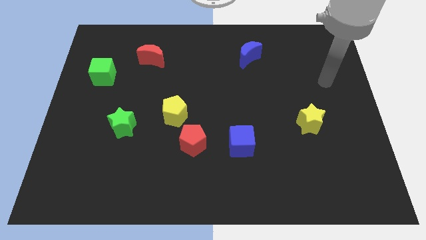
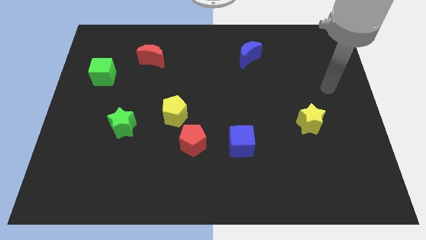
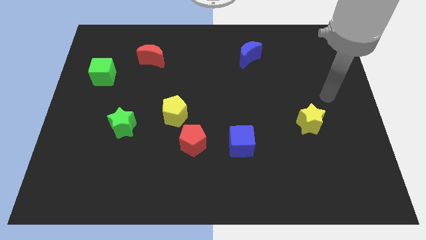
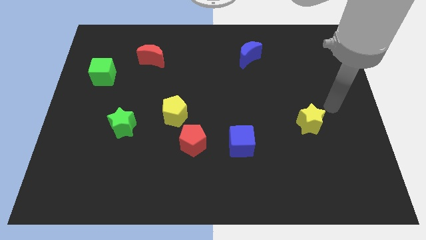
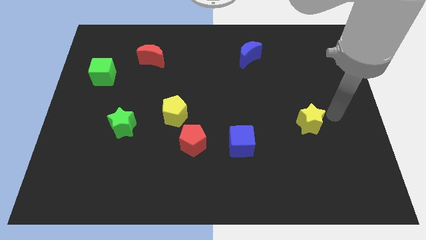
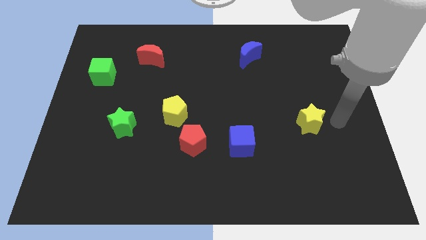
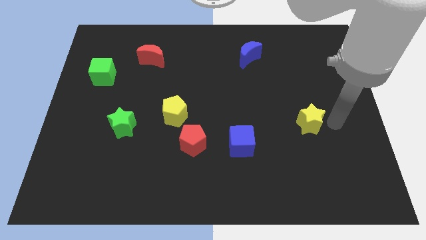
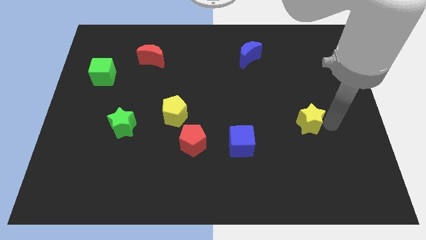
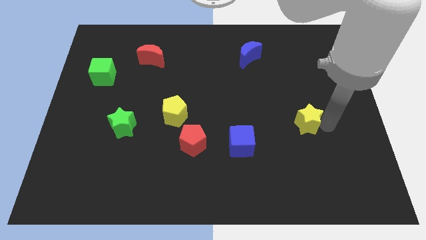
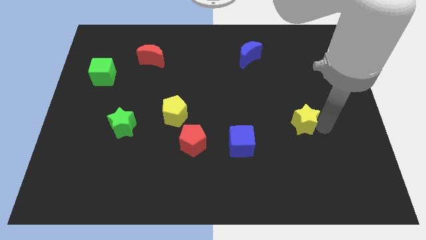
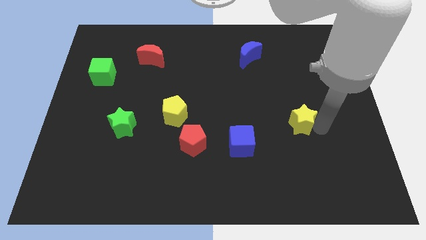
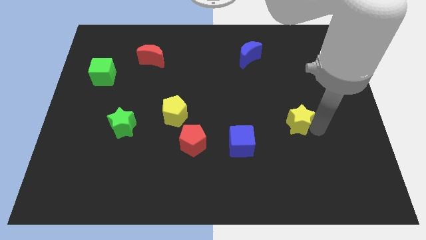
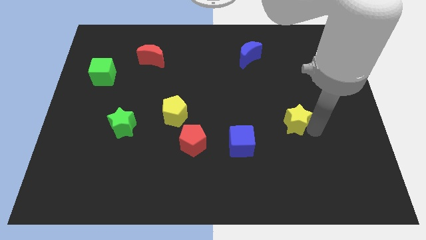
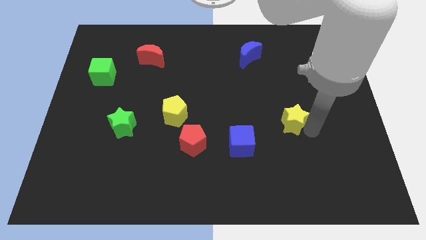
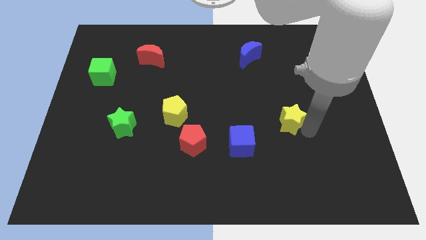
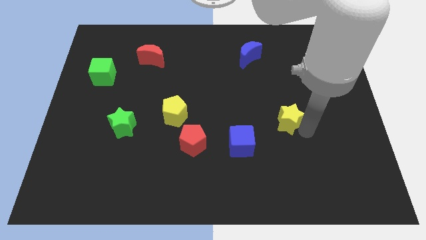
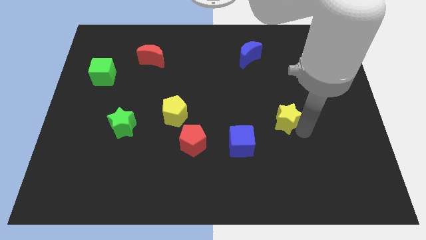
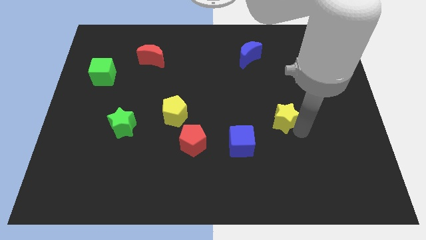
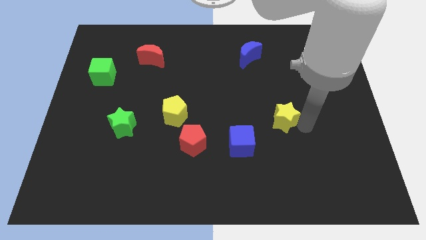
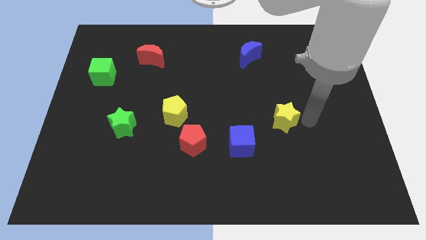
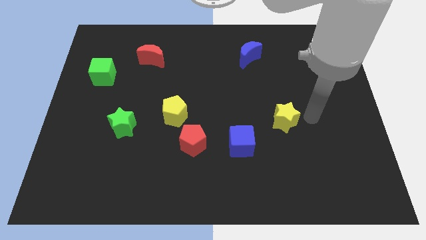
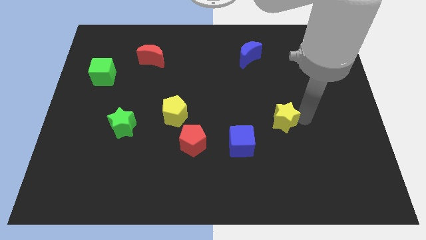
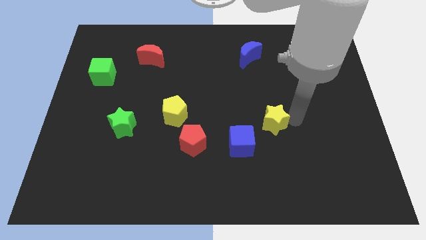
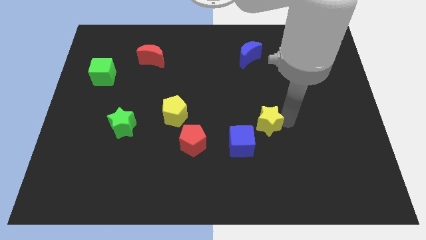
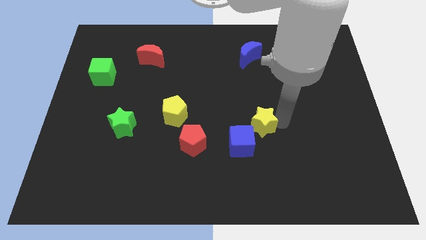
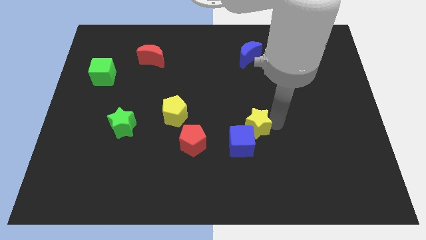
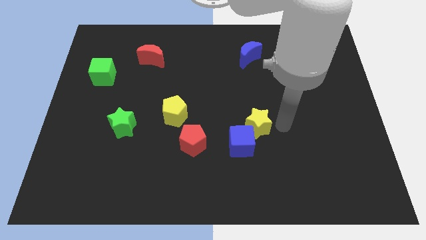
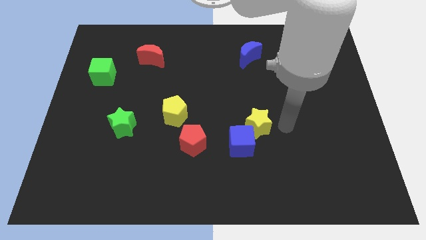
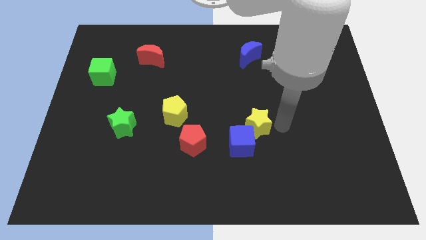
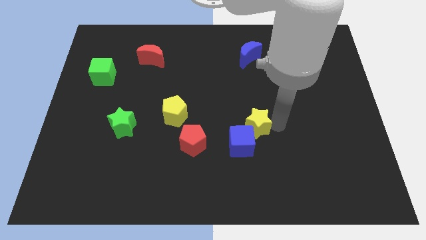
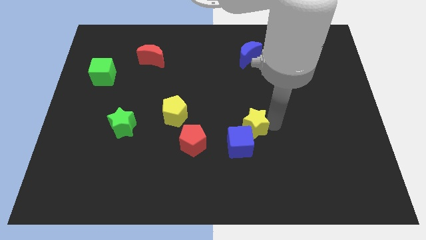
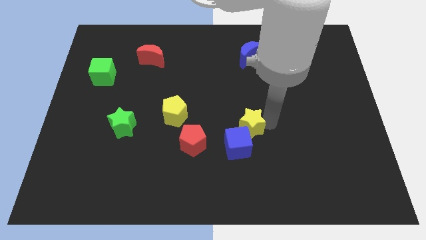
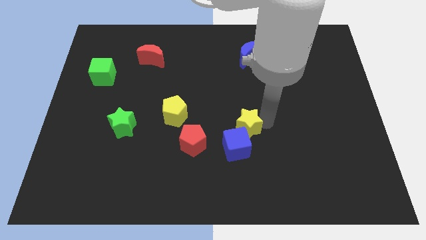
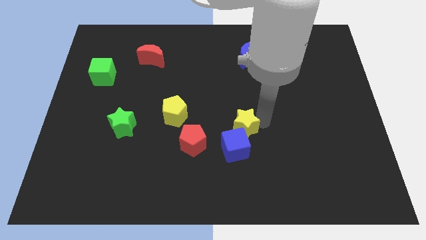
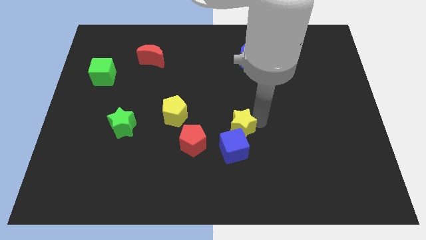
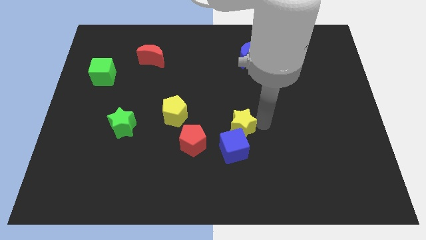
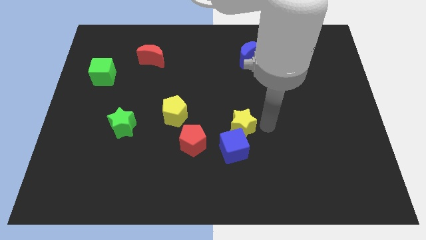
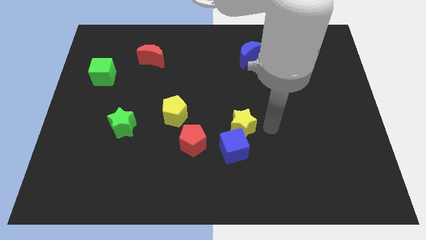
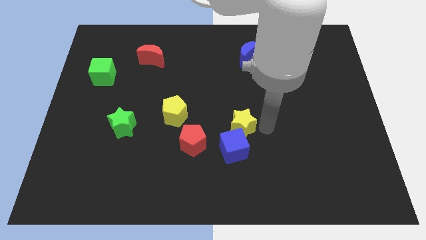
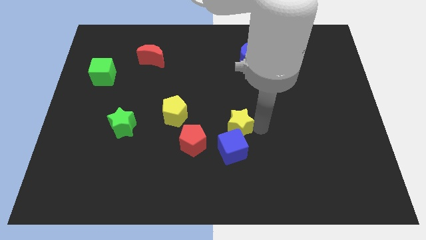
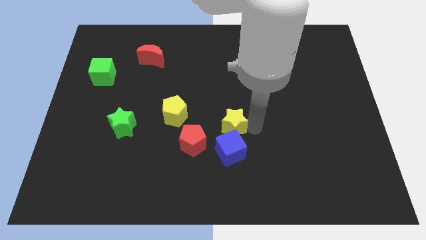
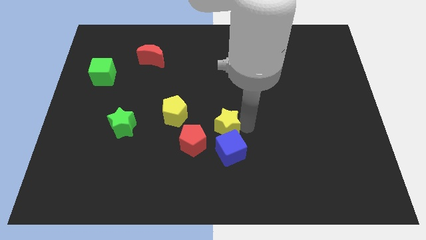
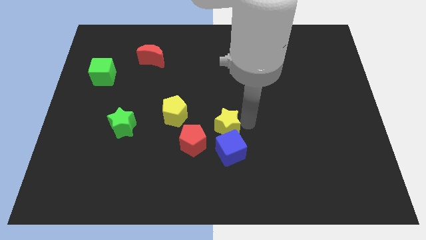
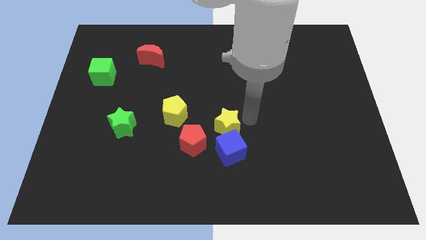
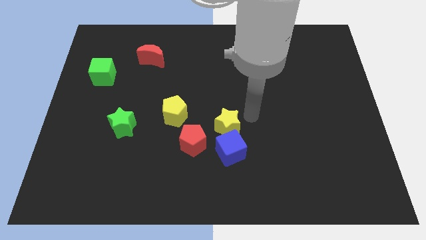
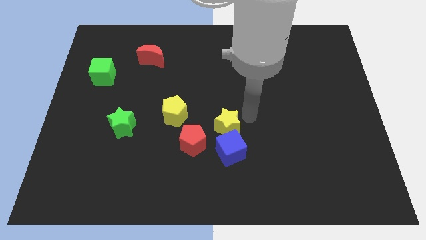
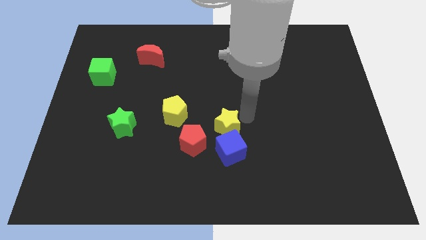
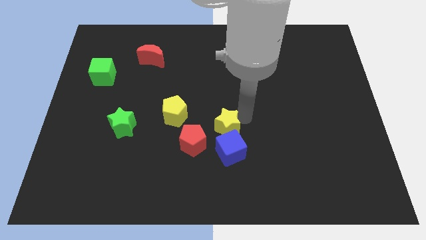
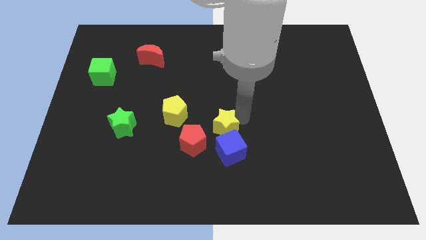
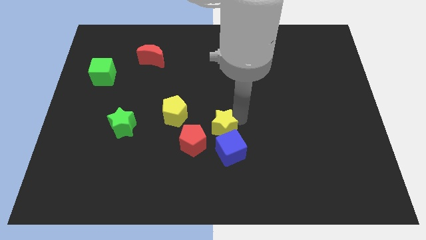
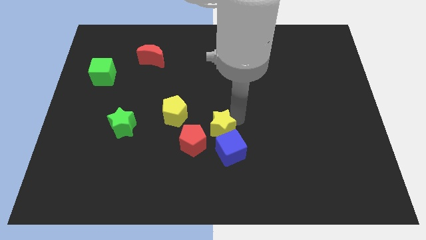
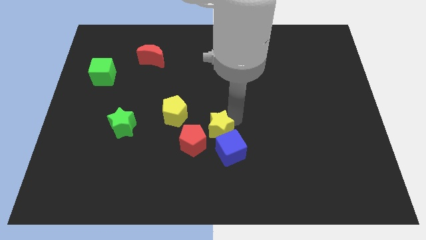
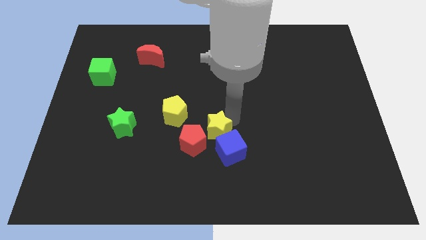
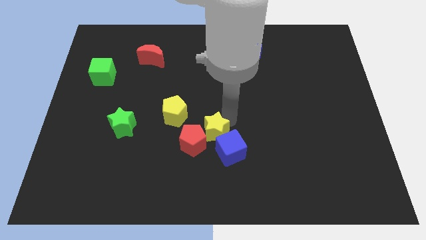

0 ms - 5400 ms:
move the yellow star to the red pentagon

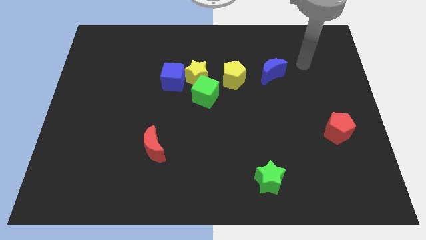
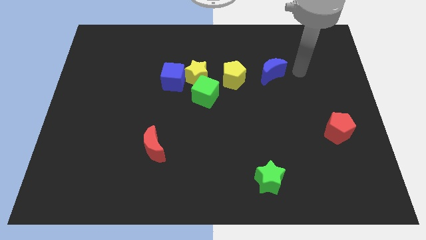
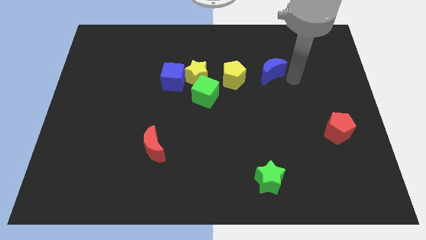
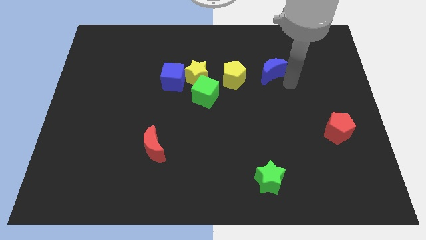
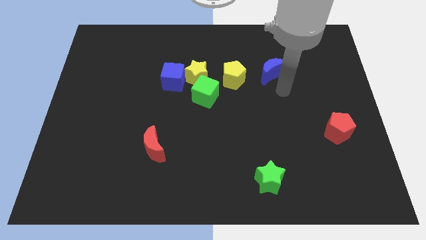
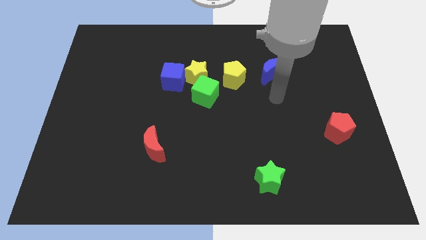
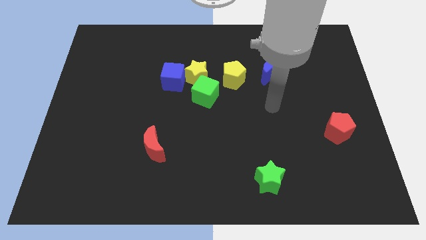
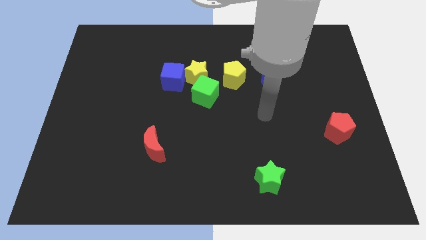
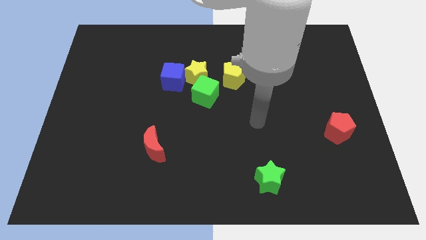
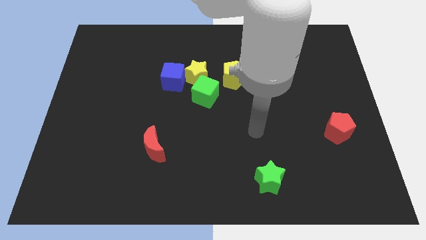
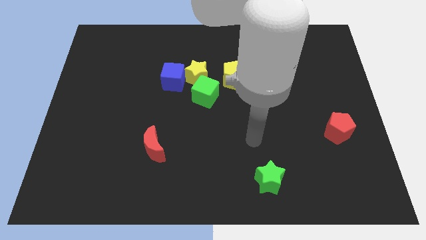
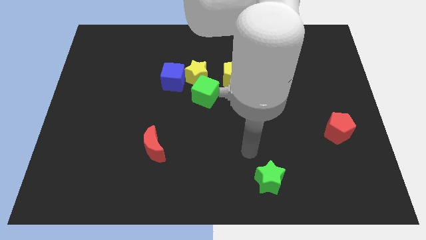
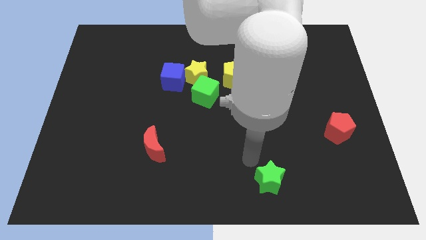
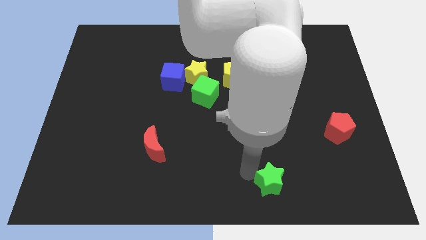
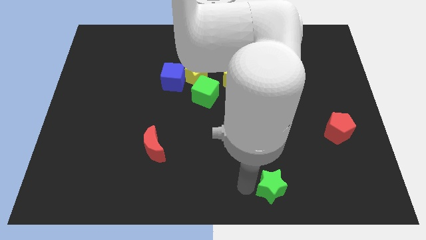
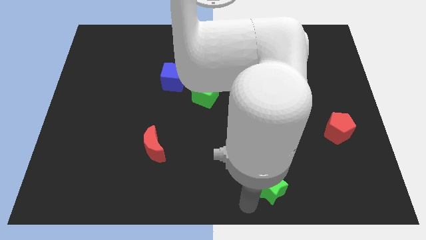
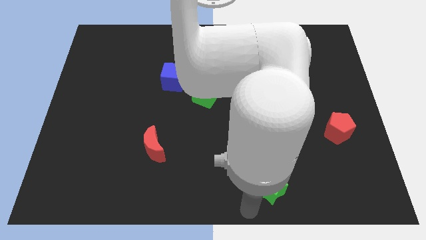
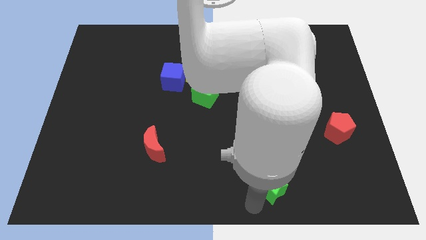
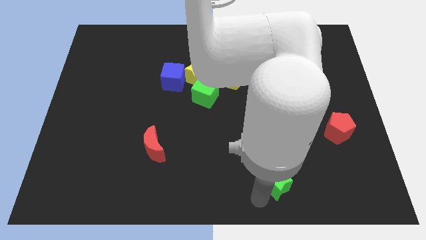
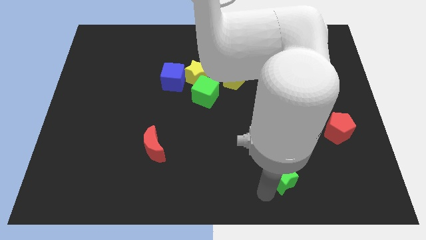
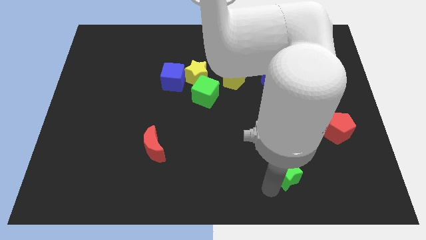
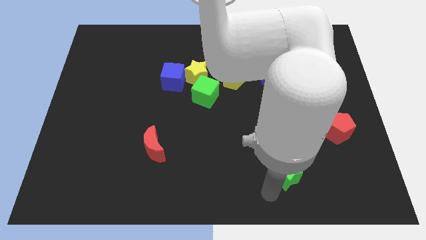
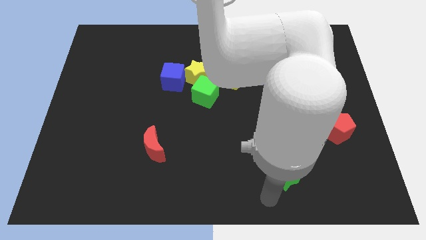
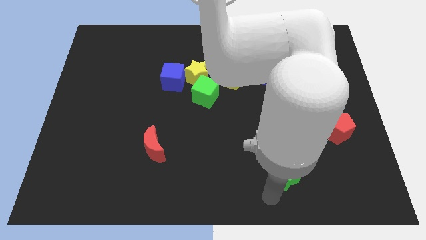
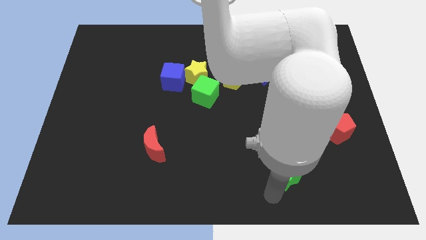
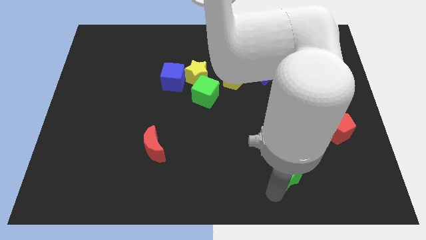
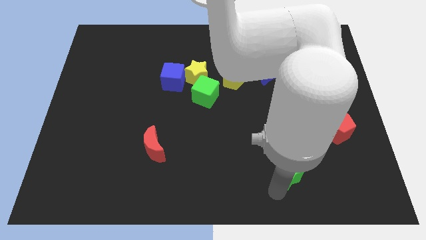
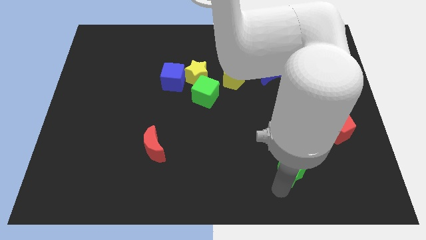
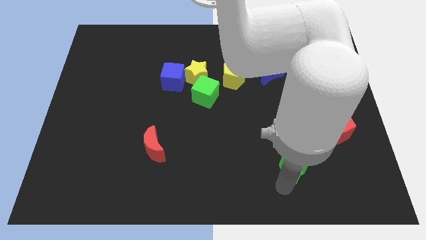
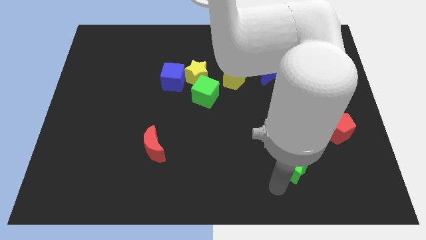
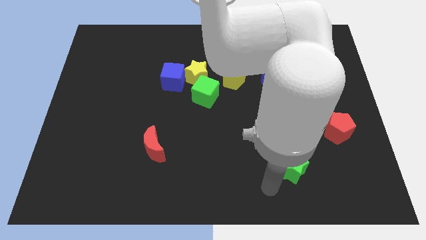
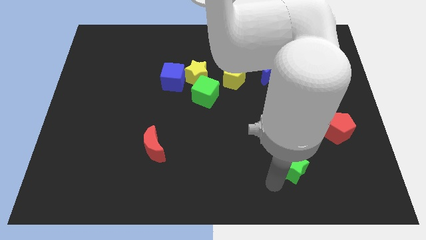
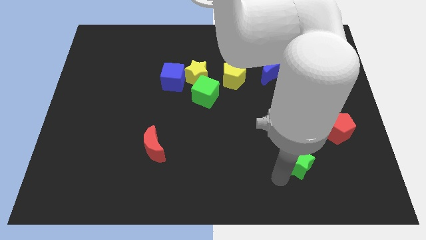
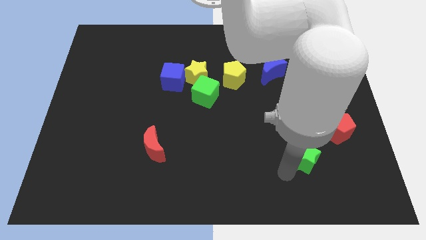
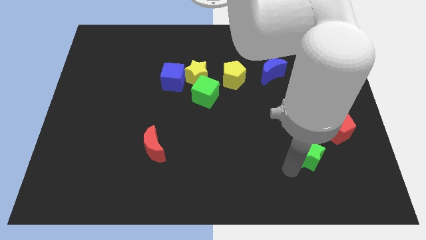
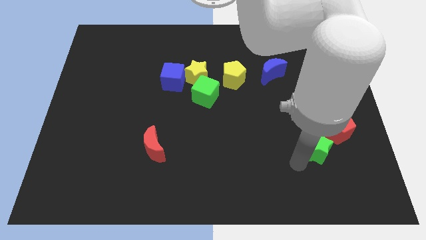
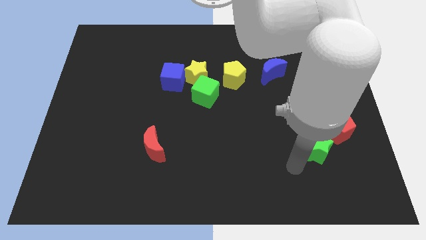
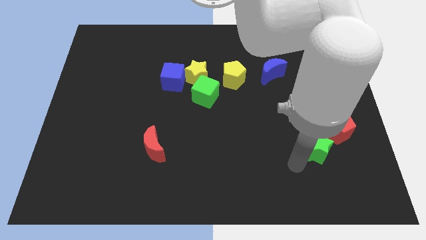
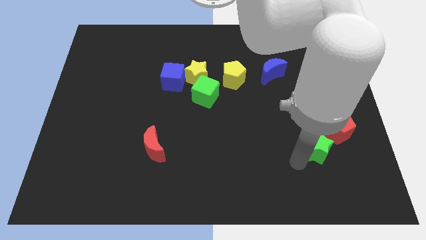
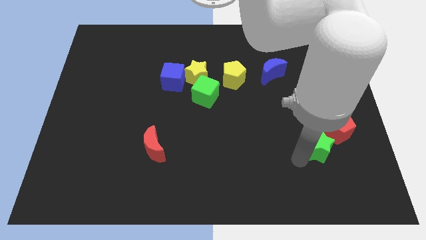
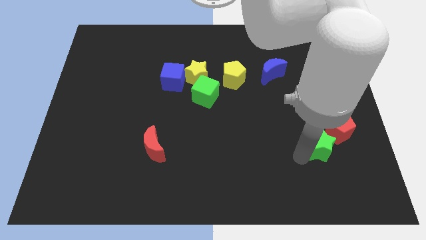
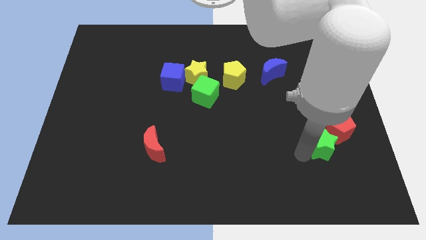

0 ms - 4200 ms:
push the green star next to the red pentagon
